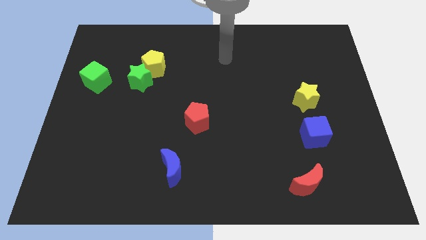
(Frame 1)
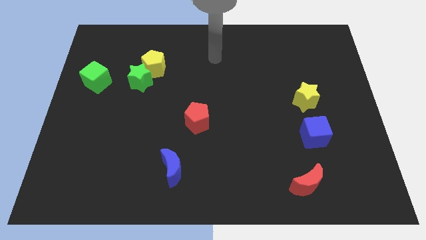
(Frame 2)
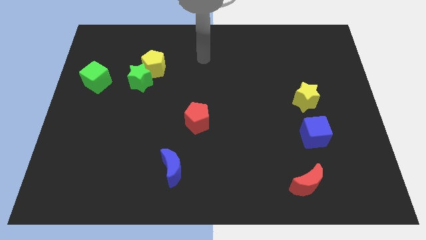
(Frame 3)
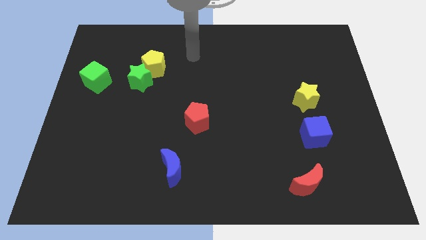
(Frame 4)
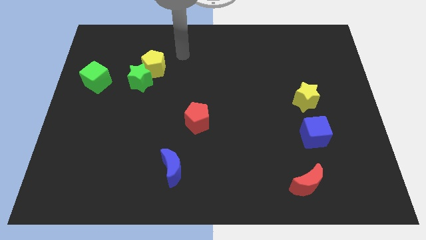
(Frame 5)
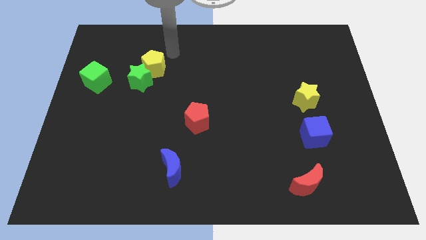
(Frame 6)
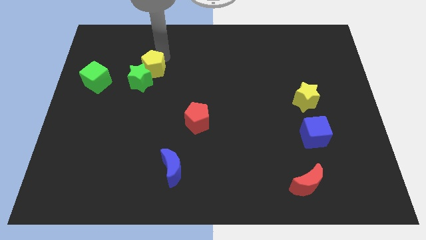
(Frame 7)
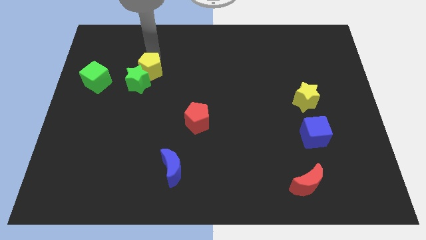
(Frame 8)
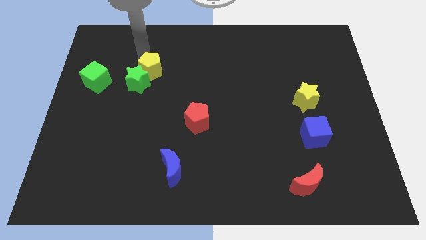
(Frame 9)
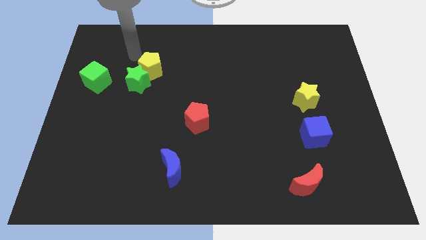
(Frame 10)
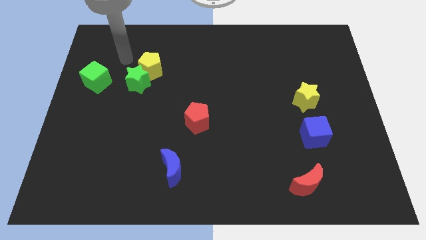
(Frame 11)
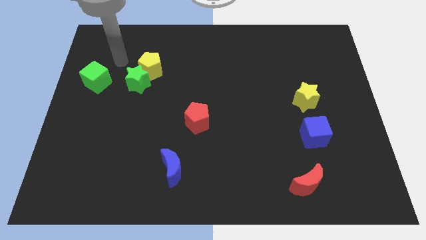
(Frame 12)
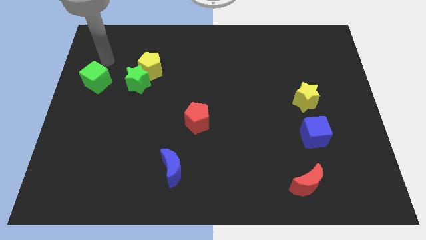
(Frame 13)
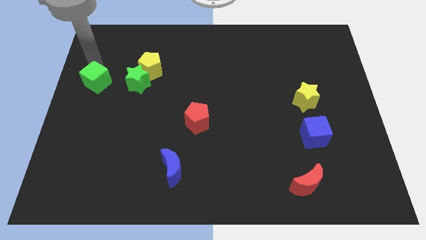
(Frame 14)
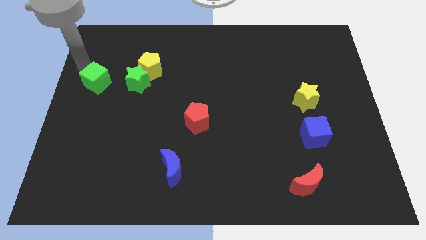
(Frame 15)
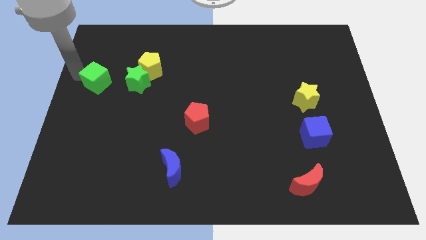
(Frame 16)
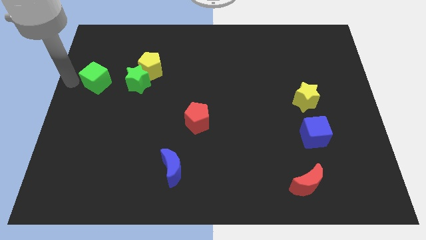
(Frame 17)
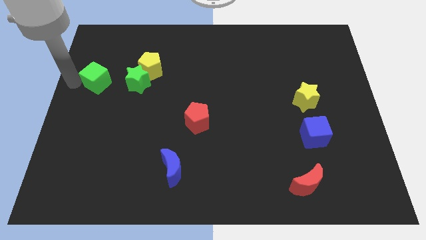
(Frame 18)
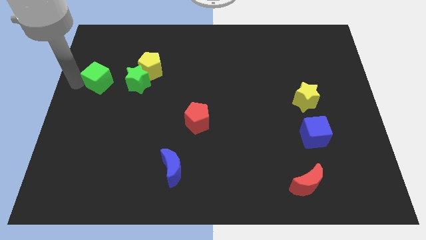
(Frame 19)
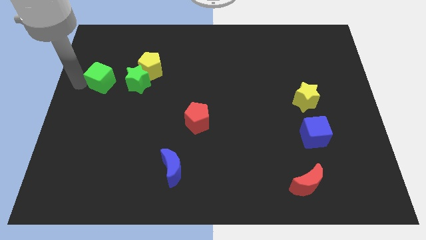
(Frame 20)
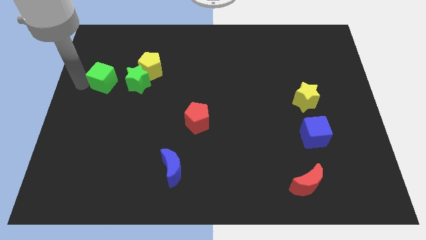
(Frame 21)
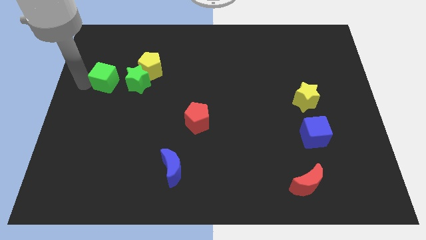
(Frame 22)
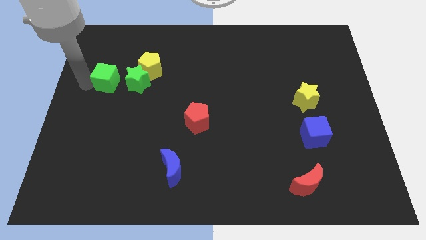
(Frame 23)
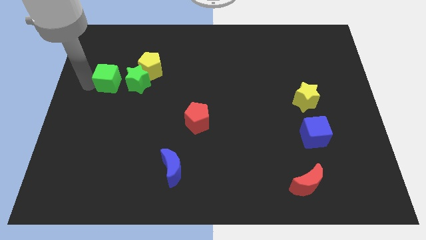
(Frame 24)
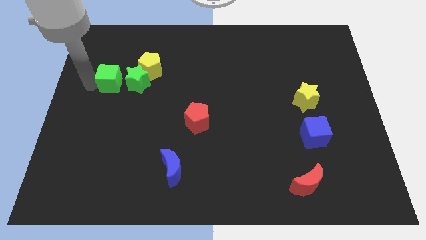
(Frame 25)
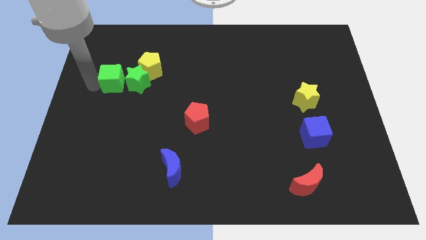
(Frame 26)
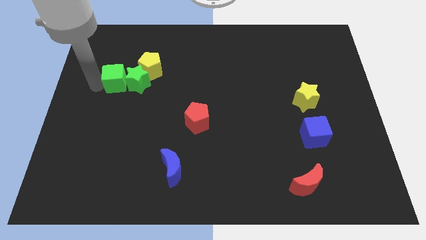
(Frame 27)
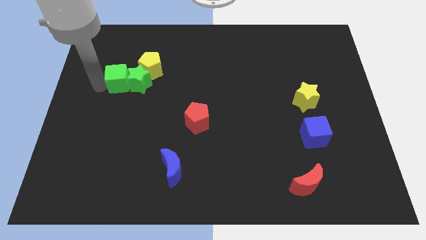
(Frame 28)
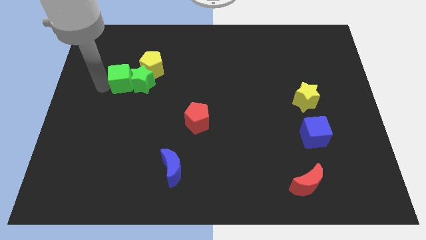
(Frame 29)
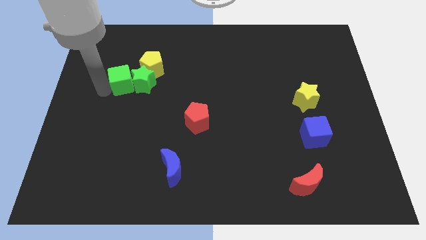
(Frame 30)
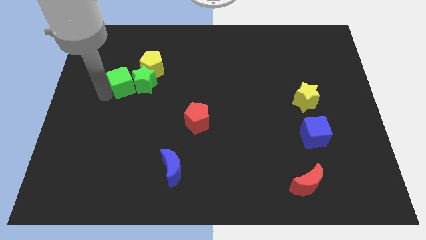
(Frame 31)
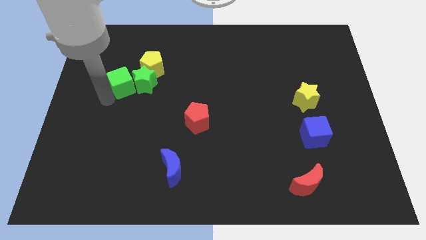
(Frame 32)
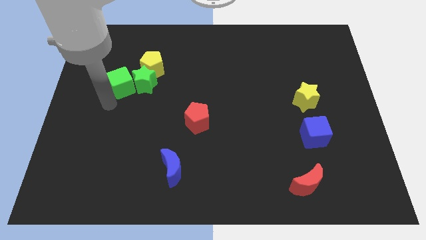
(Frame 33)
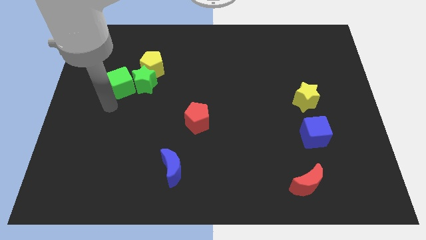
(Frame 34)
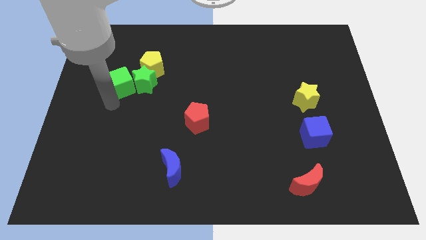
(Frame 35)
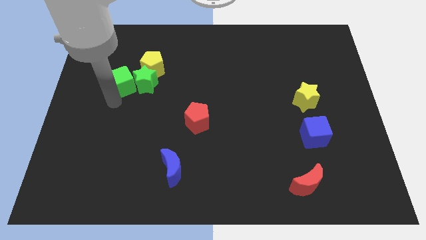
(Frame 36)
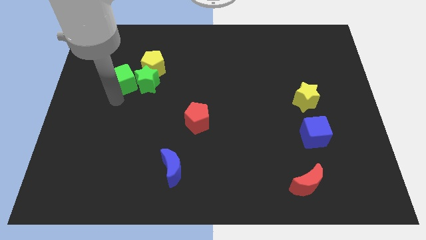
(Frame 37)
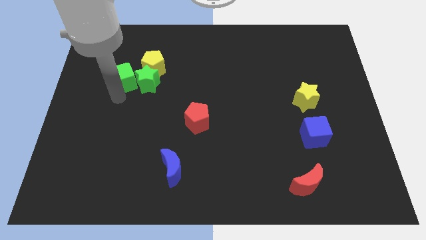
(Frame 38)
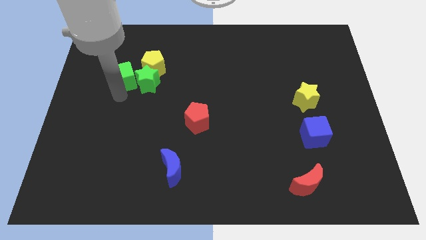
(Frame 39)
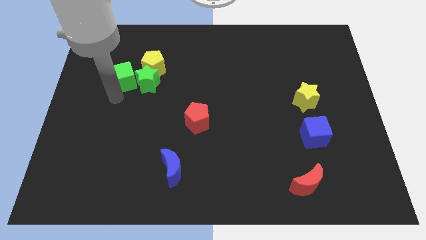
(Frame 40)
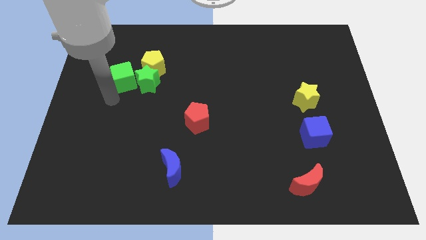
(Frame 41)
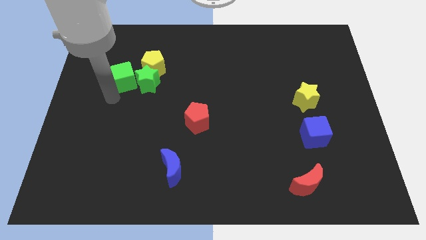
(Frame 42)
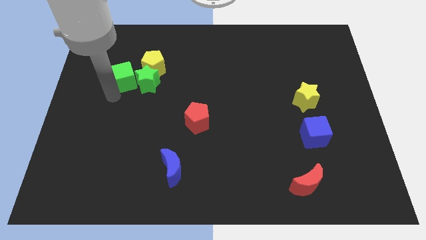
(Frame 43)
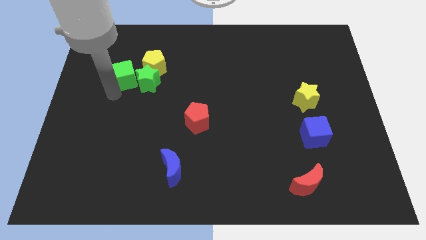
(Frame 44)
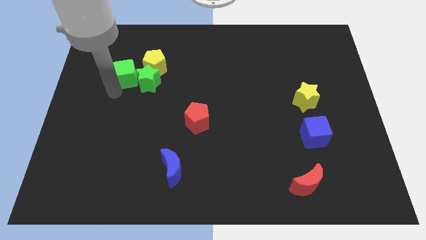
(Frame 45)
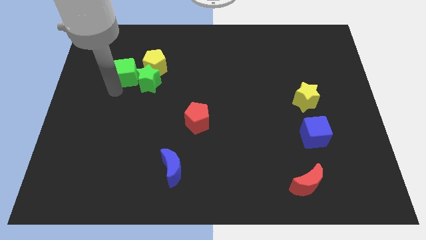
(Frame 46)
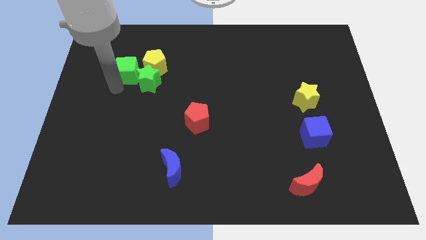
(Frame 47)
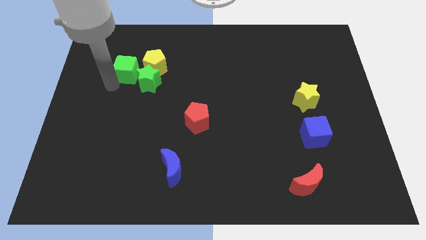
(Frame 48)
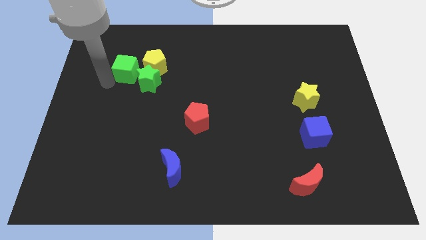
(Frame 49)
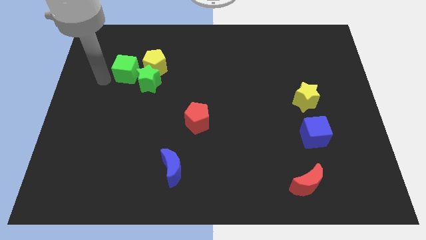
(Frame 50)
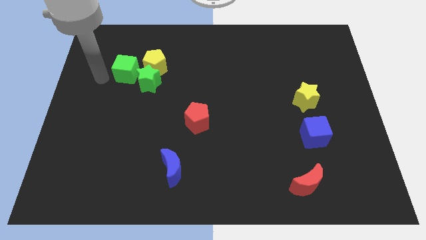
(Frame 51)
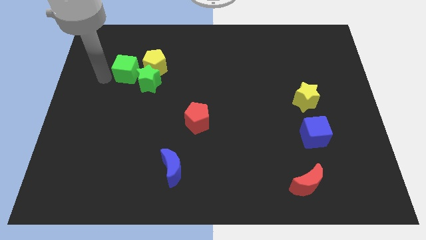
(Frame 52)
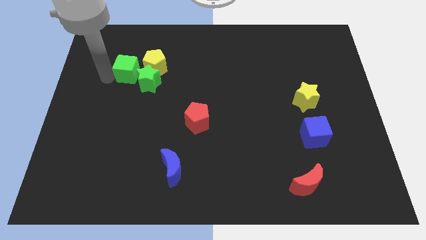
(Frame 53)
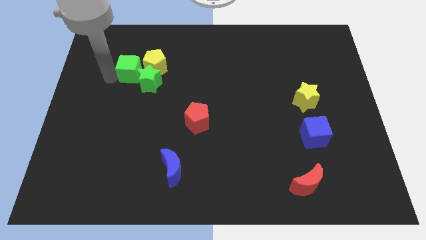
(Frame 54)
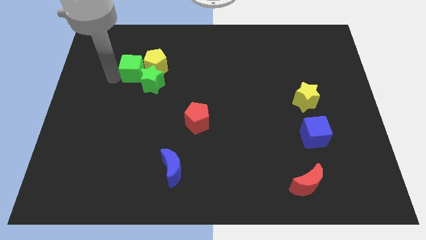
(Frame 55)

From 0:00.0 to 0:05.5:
slide the green cube to the yellow pentagon

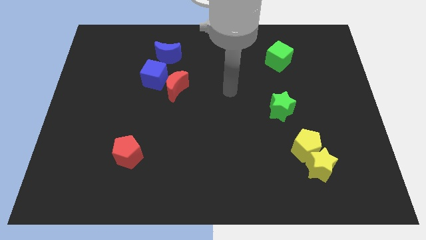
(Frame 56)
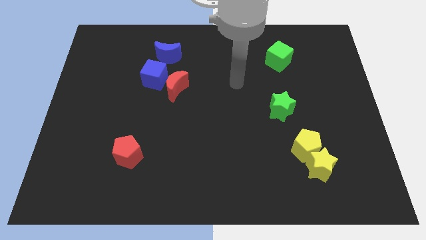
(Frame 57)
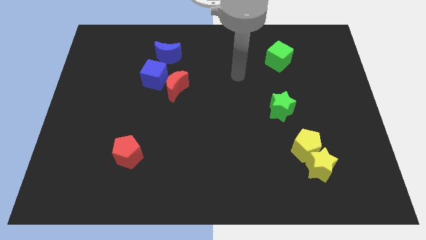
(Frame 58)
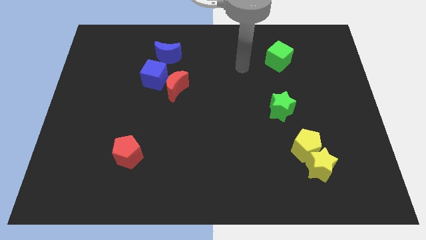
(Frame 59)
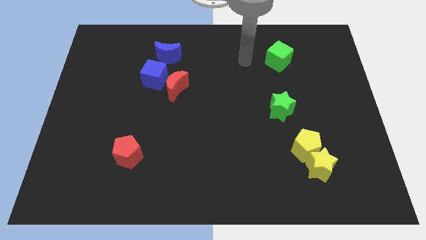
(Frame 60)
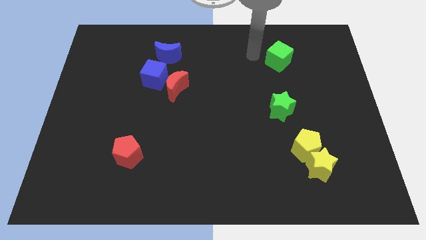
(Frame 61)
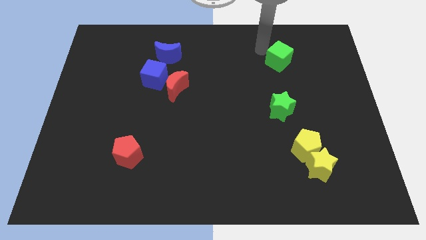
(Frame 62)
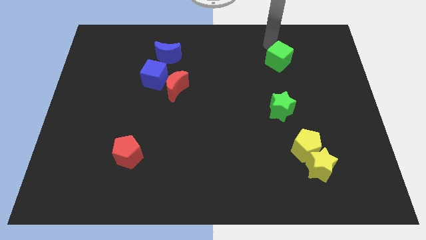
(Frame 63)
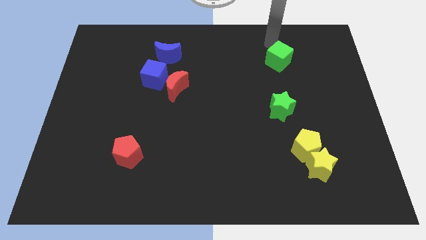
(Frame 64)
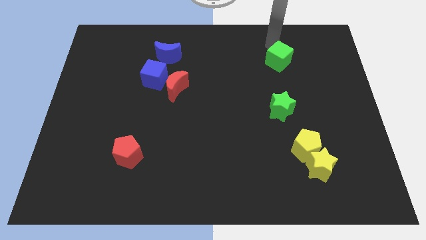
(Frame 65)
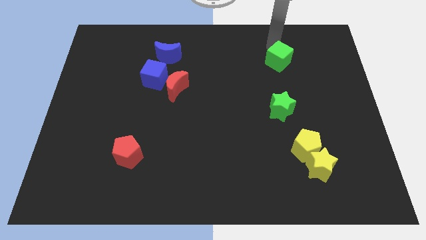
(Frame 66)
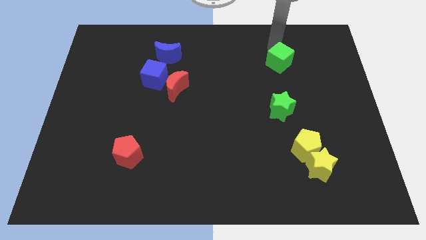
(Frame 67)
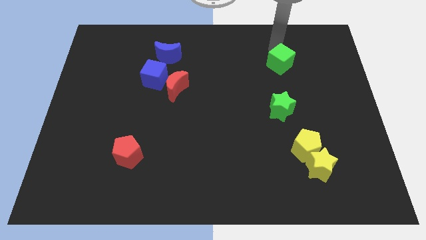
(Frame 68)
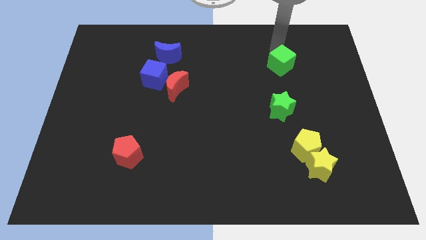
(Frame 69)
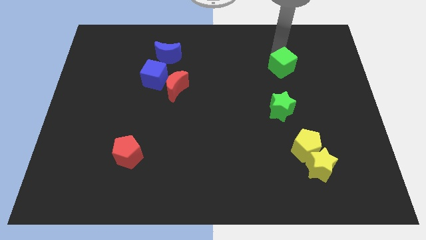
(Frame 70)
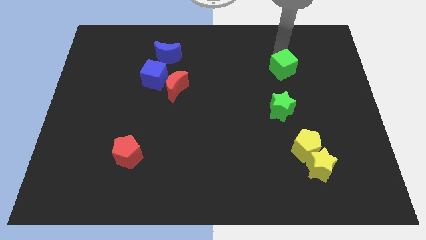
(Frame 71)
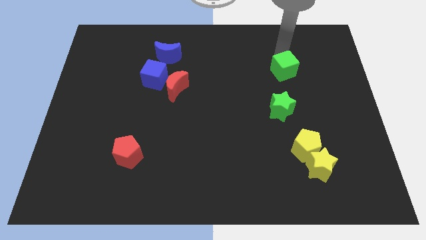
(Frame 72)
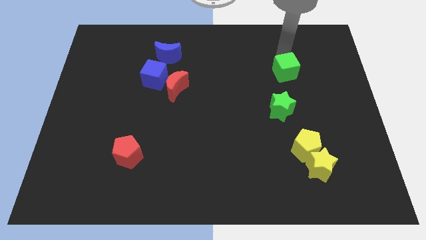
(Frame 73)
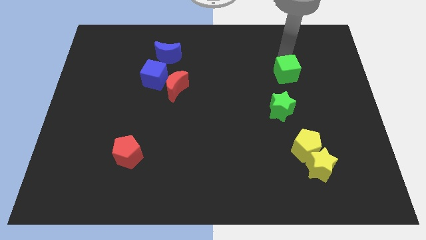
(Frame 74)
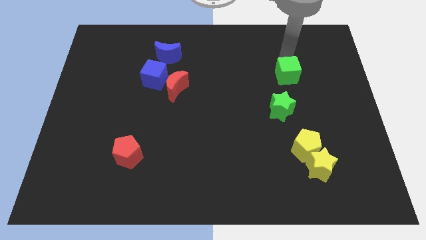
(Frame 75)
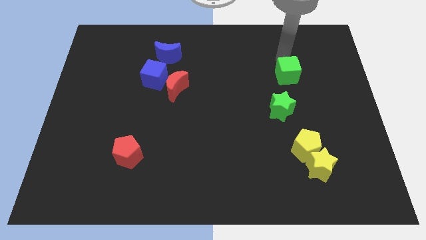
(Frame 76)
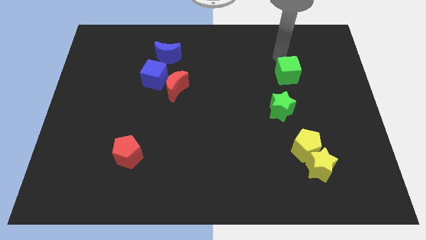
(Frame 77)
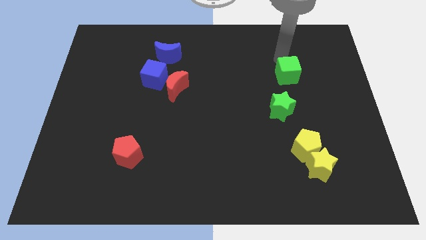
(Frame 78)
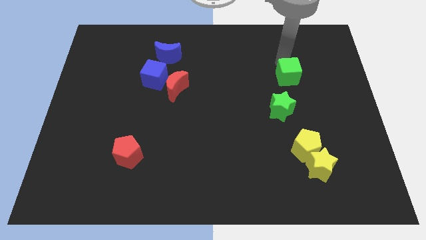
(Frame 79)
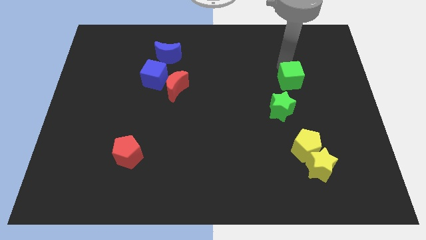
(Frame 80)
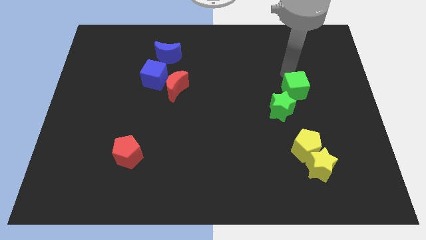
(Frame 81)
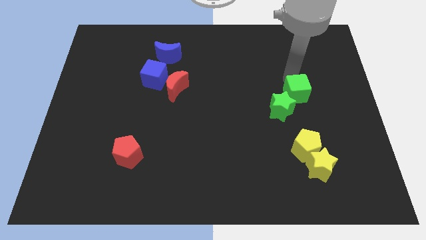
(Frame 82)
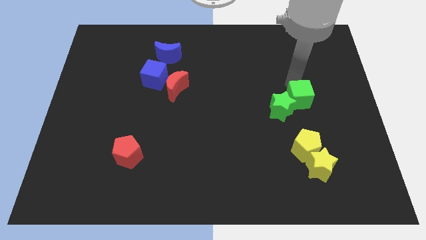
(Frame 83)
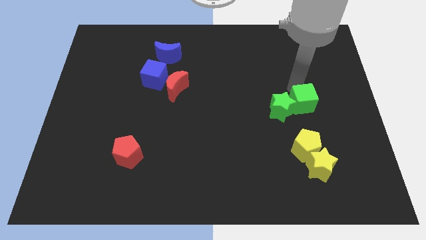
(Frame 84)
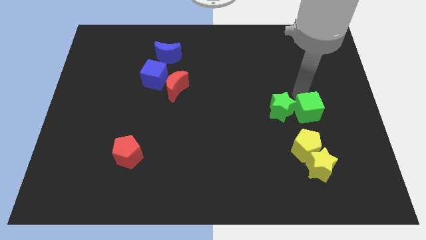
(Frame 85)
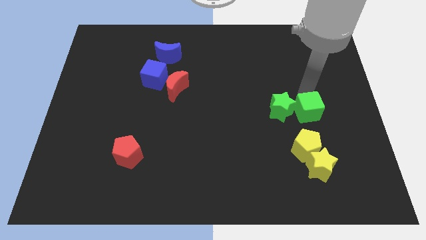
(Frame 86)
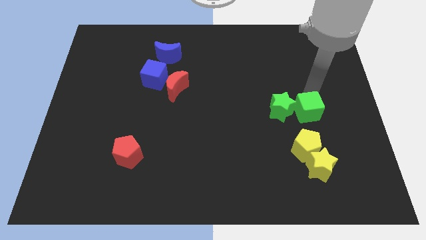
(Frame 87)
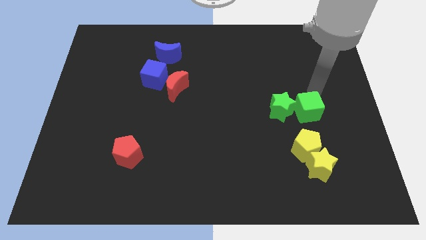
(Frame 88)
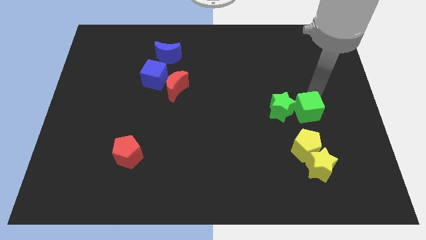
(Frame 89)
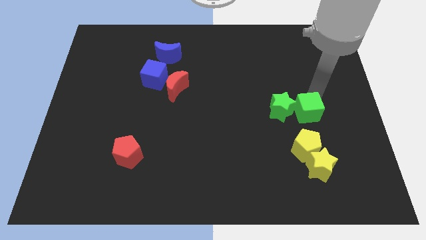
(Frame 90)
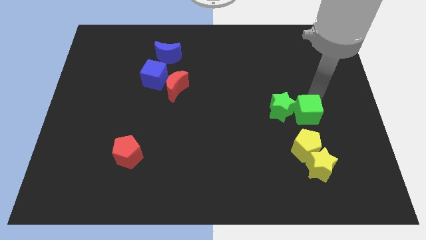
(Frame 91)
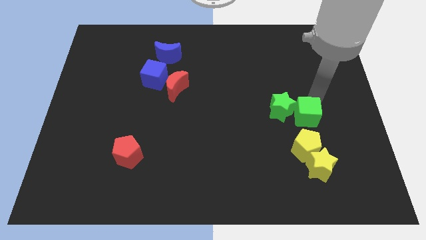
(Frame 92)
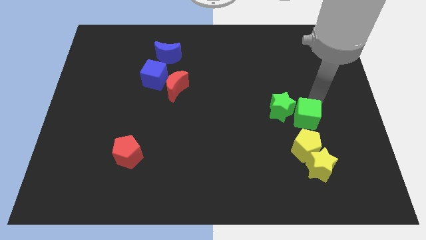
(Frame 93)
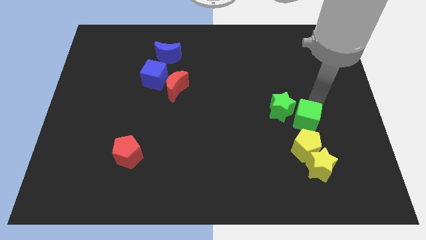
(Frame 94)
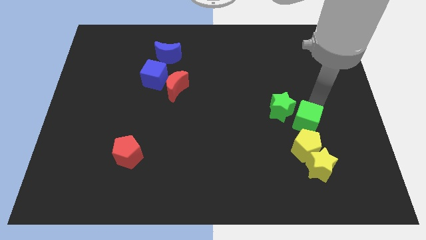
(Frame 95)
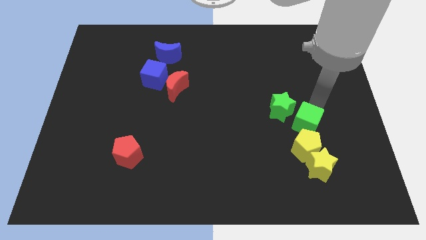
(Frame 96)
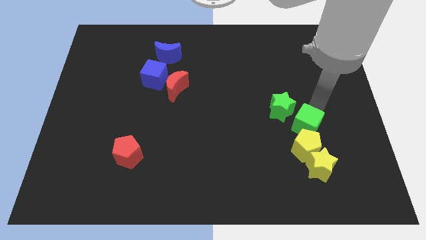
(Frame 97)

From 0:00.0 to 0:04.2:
push the green cube towards the yellow pentagon
